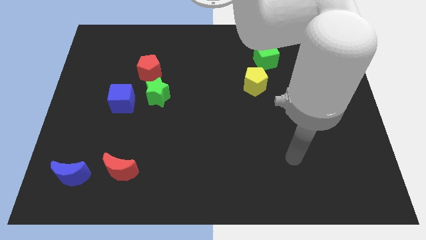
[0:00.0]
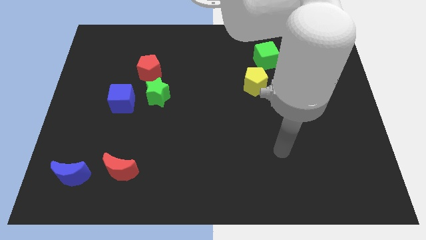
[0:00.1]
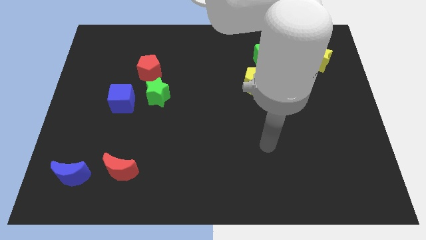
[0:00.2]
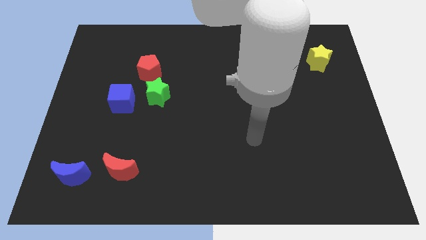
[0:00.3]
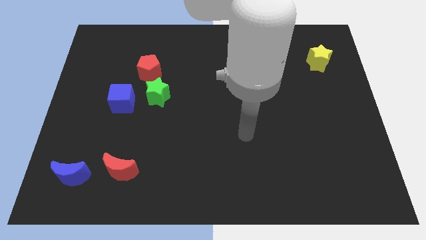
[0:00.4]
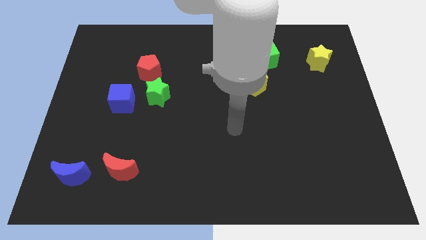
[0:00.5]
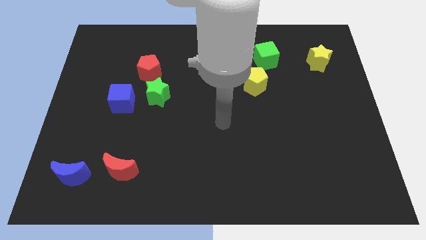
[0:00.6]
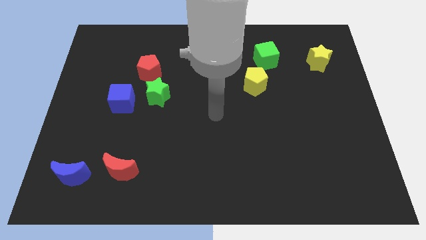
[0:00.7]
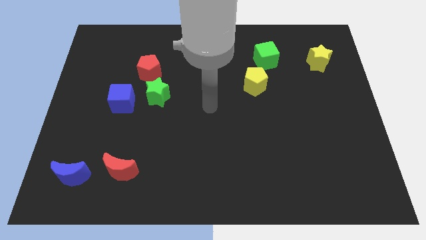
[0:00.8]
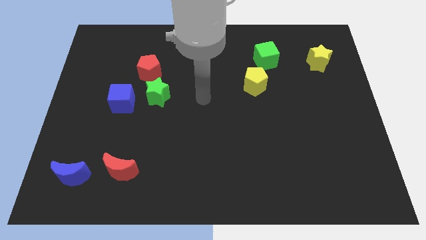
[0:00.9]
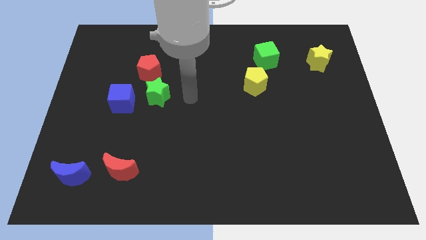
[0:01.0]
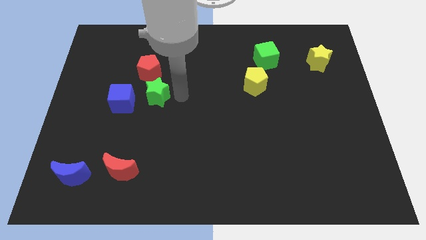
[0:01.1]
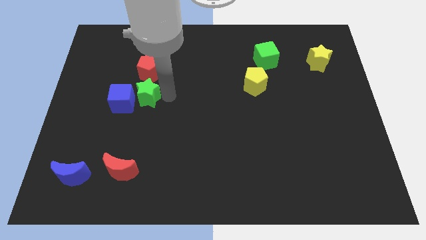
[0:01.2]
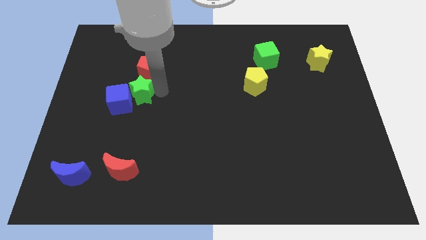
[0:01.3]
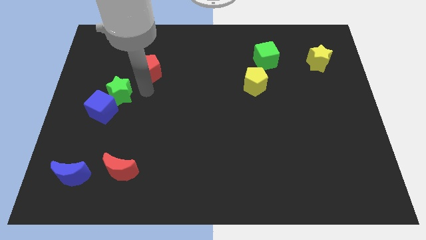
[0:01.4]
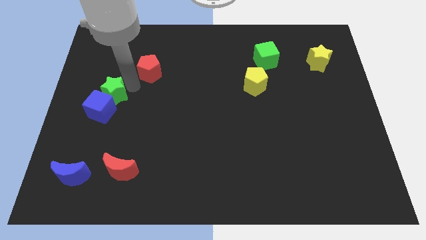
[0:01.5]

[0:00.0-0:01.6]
move the red pentagon away from the green star

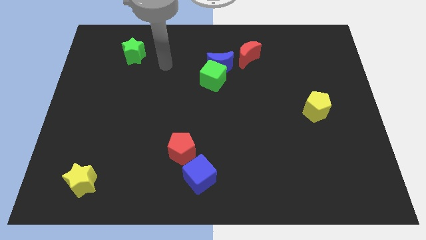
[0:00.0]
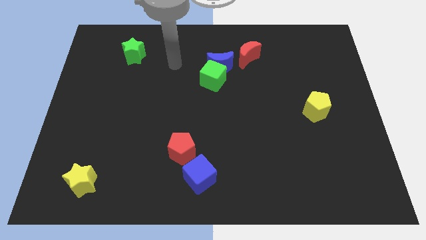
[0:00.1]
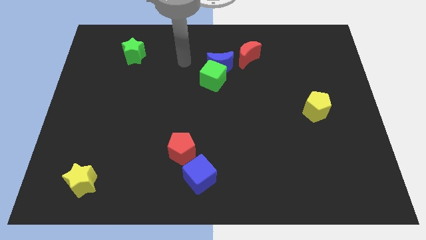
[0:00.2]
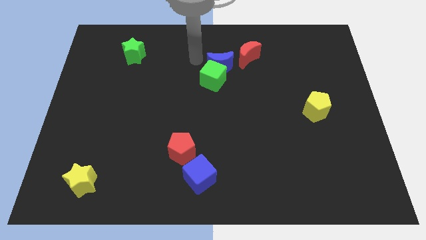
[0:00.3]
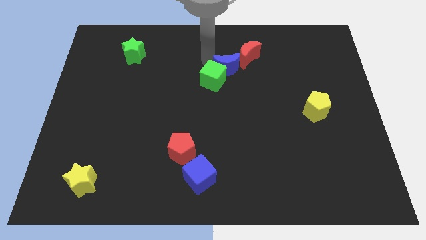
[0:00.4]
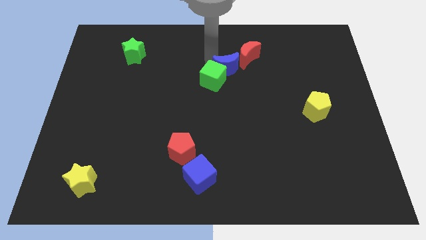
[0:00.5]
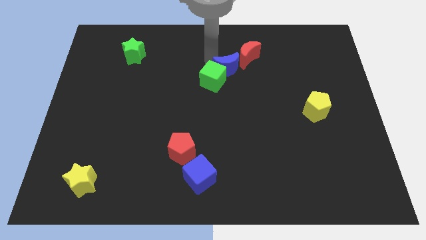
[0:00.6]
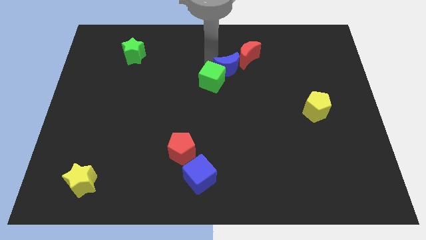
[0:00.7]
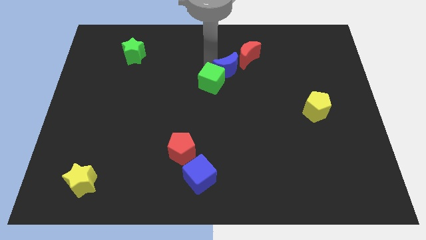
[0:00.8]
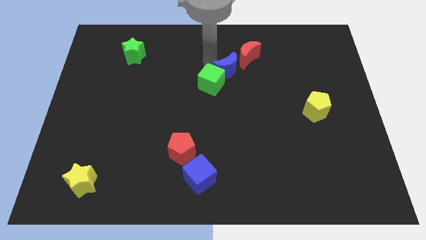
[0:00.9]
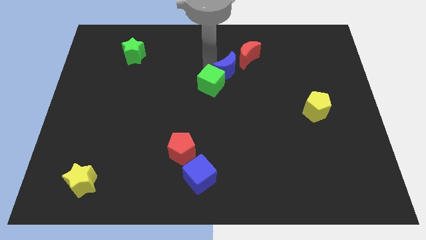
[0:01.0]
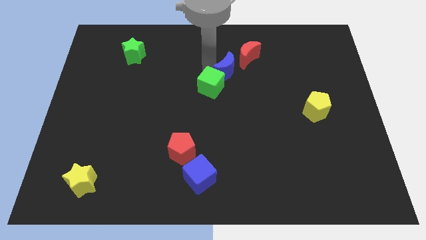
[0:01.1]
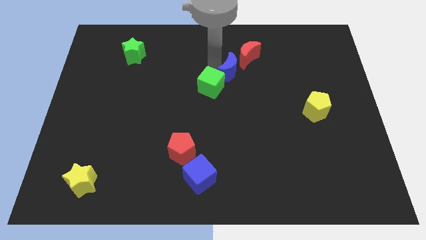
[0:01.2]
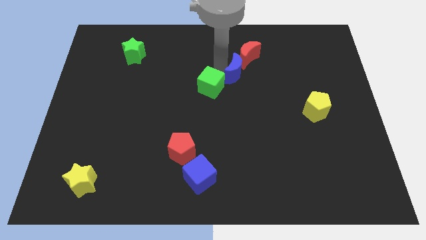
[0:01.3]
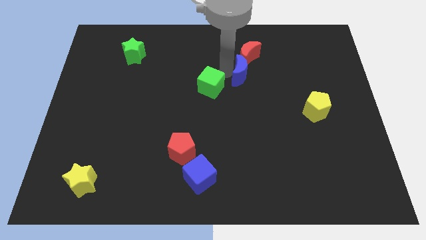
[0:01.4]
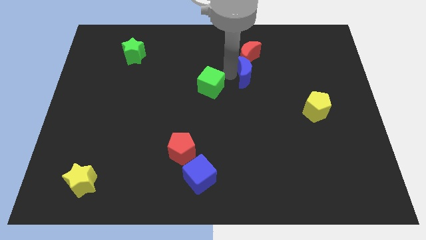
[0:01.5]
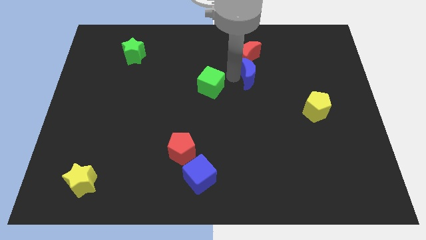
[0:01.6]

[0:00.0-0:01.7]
separate the green cube from the blue moon

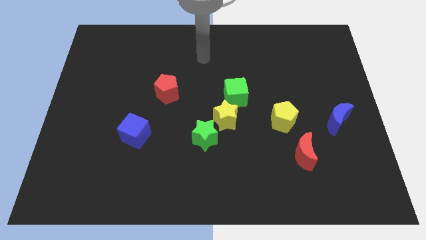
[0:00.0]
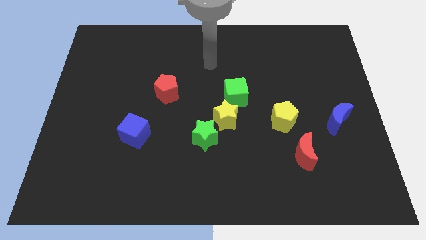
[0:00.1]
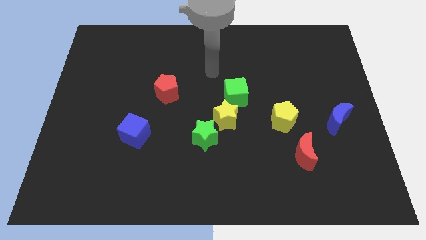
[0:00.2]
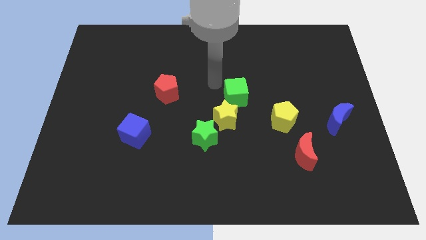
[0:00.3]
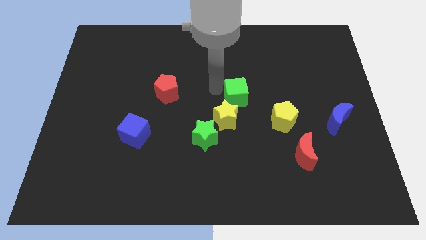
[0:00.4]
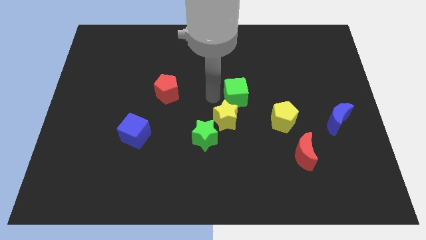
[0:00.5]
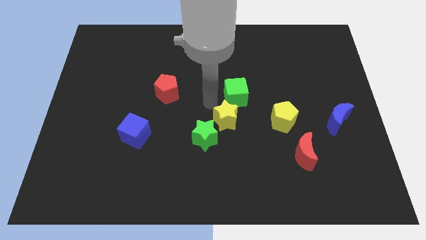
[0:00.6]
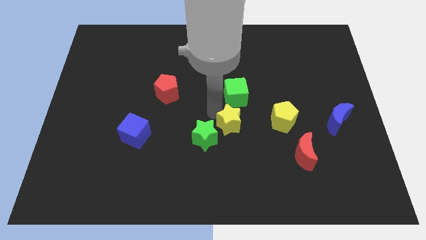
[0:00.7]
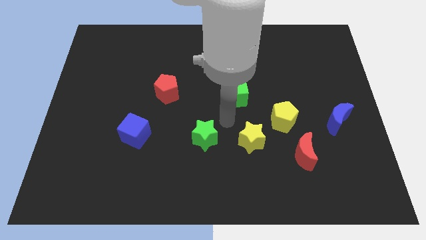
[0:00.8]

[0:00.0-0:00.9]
pull the green star apart from the yellow star

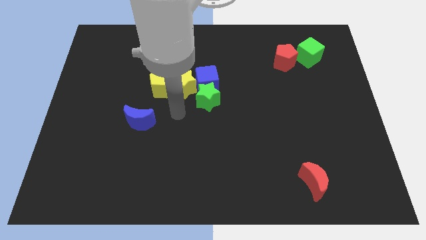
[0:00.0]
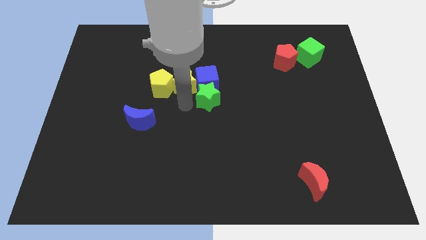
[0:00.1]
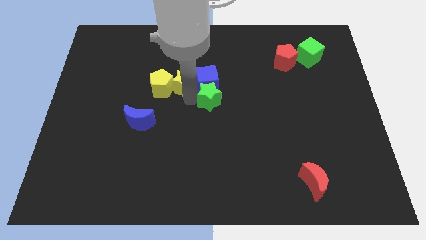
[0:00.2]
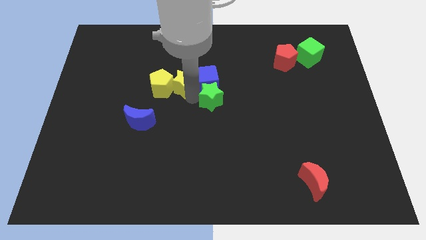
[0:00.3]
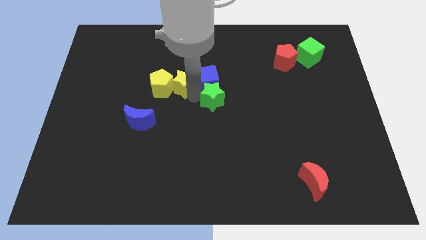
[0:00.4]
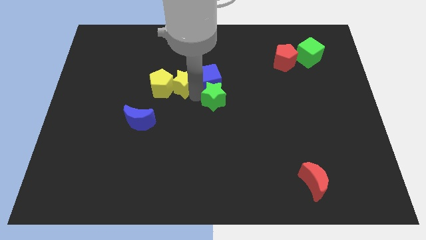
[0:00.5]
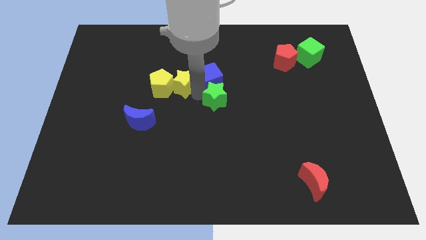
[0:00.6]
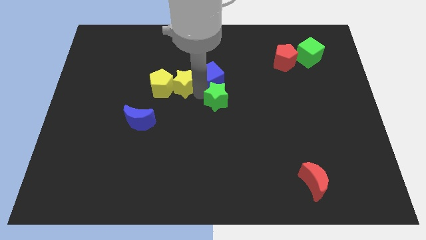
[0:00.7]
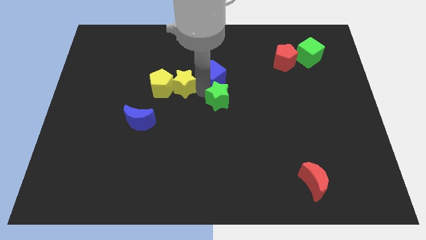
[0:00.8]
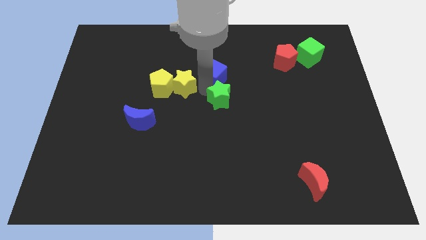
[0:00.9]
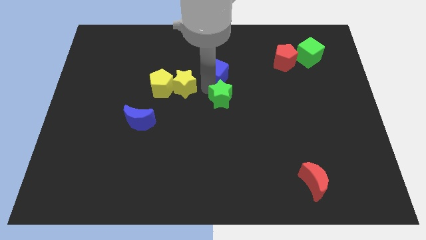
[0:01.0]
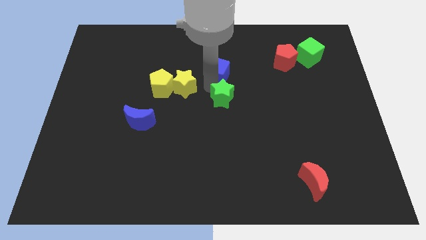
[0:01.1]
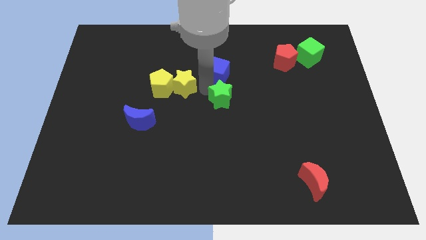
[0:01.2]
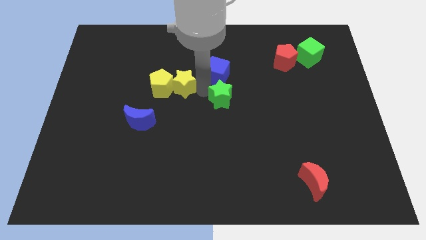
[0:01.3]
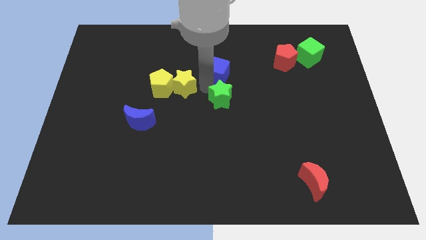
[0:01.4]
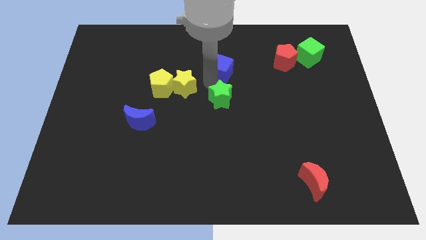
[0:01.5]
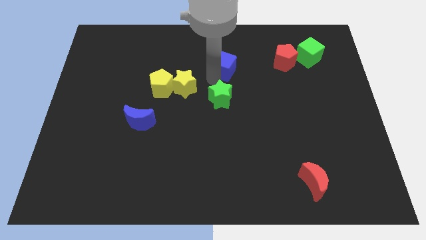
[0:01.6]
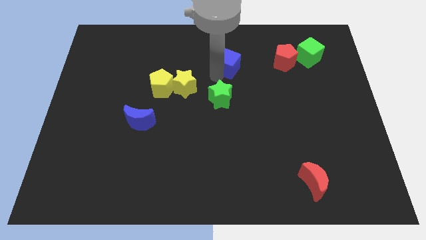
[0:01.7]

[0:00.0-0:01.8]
separate the blue cube from the yellow star and green star

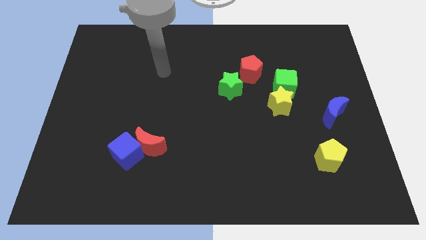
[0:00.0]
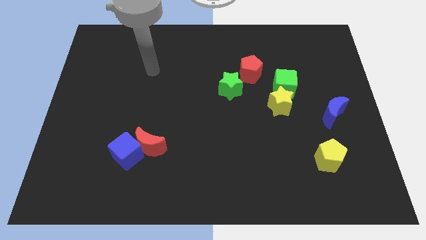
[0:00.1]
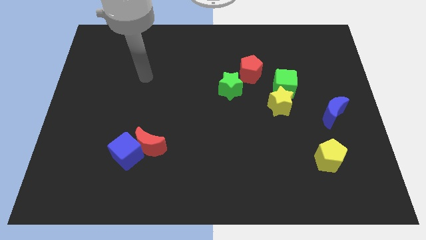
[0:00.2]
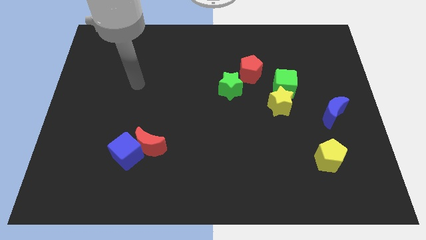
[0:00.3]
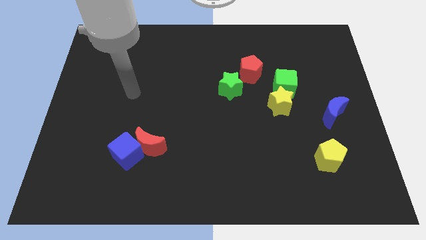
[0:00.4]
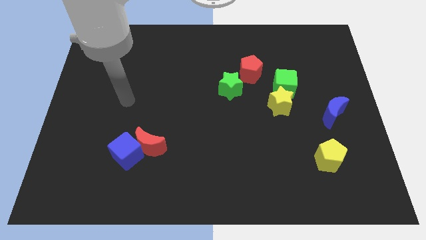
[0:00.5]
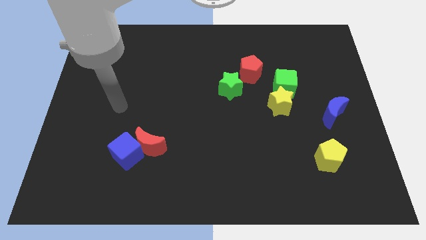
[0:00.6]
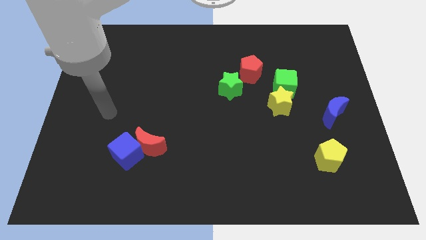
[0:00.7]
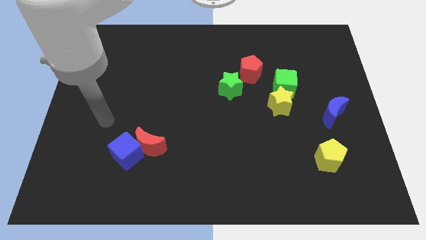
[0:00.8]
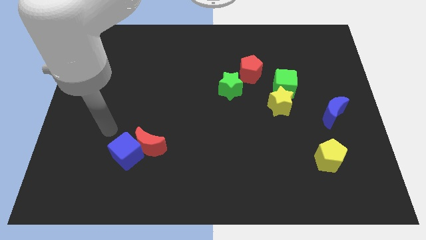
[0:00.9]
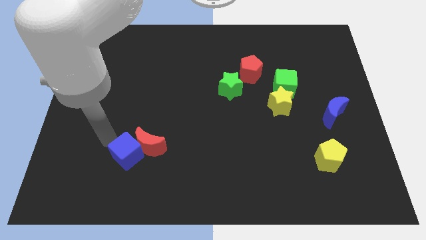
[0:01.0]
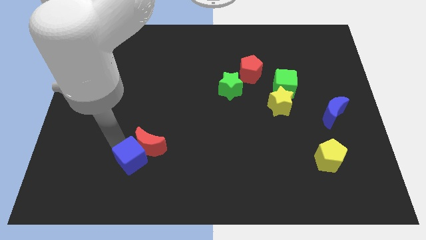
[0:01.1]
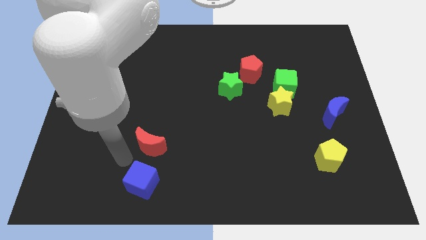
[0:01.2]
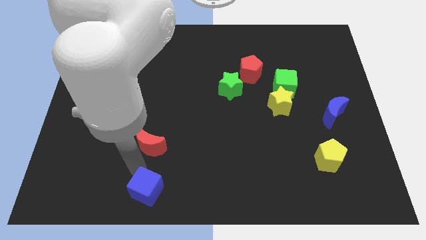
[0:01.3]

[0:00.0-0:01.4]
separate the red moon from the blue cube

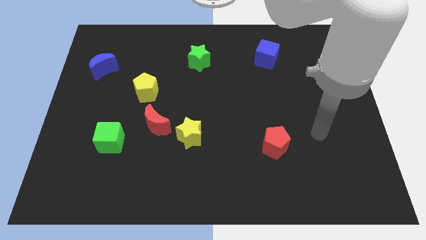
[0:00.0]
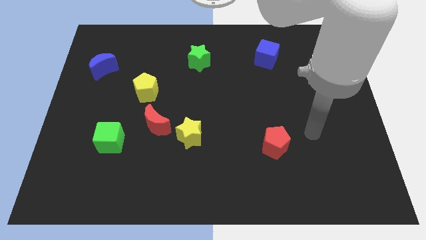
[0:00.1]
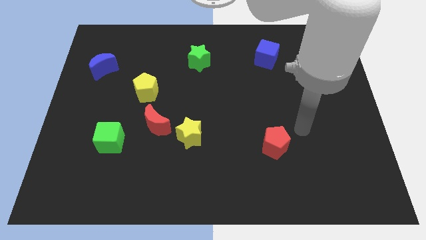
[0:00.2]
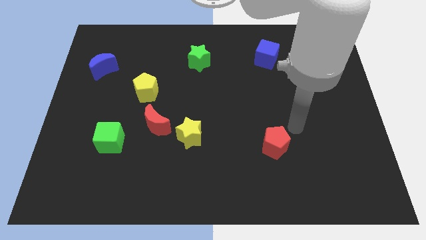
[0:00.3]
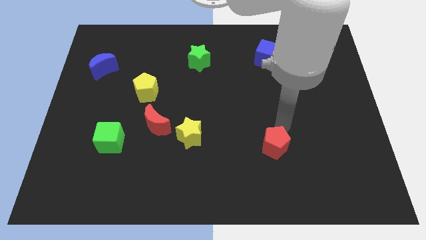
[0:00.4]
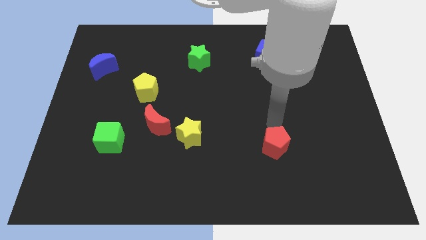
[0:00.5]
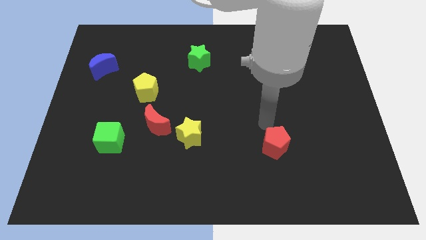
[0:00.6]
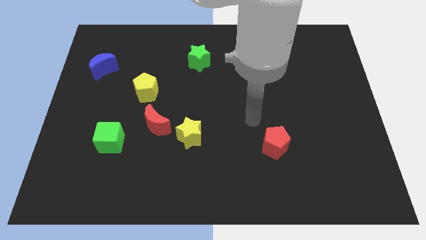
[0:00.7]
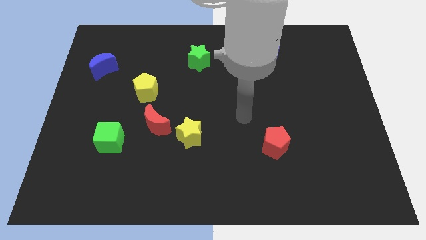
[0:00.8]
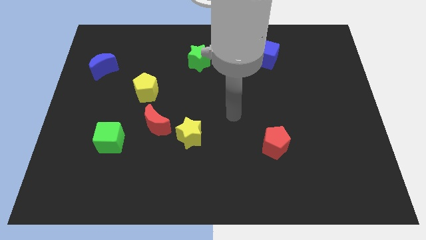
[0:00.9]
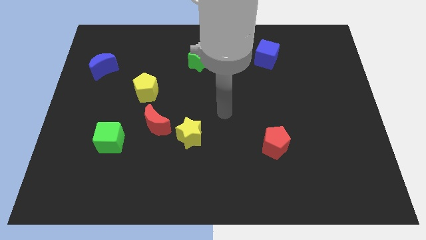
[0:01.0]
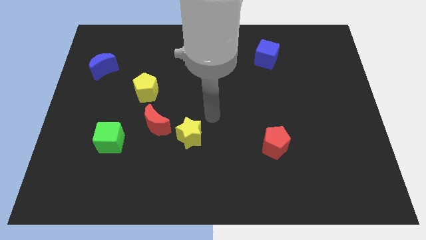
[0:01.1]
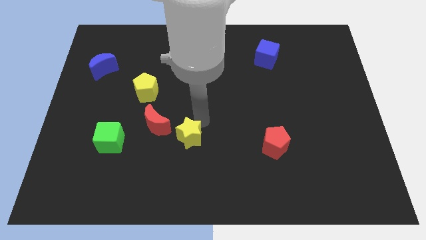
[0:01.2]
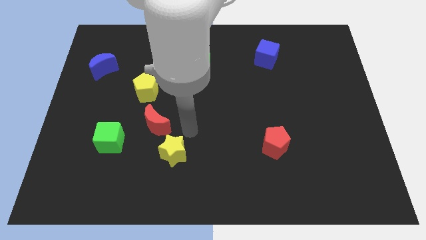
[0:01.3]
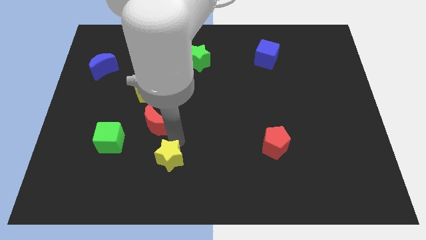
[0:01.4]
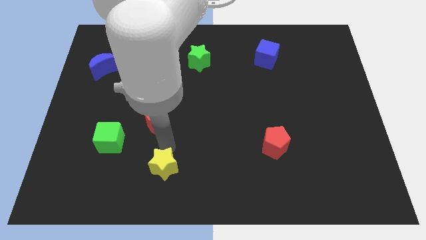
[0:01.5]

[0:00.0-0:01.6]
pull the red moon apart from the yellow star

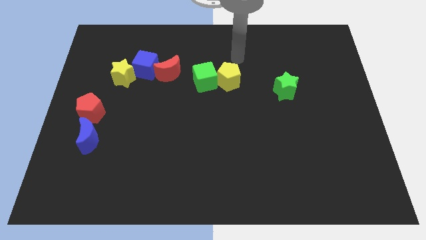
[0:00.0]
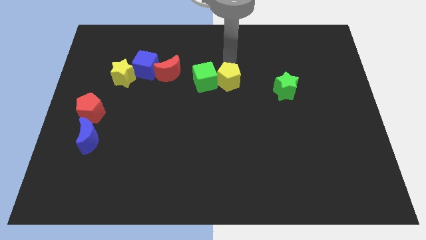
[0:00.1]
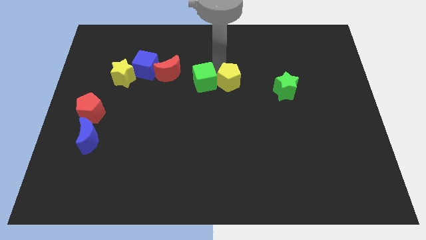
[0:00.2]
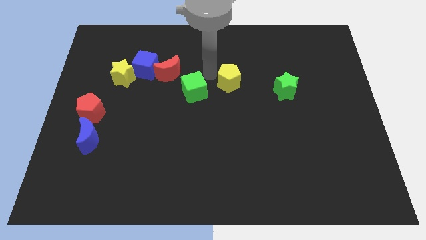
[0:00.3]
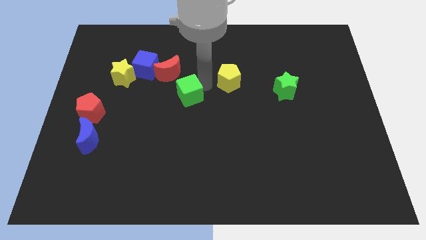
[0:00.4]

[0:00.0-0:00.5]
separate the yellow pentagon from the green cube

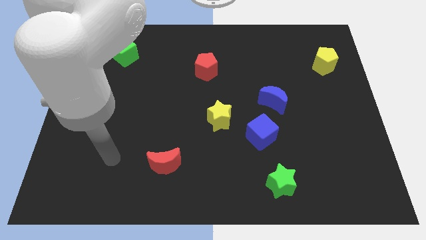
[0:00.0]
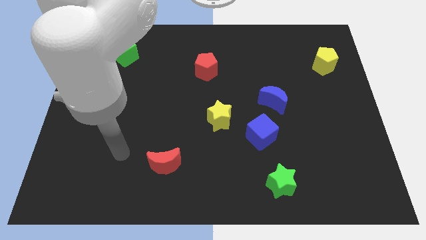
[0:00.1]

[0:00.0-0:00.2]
pull the blue moon apart from the blue cube
